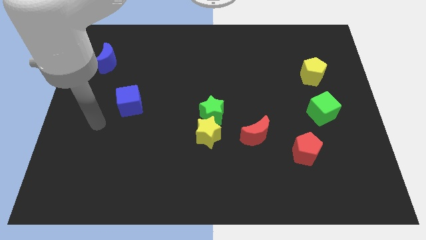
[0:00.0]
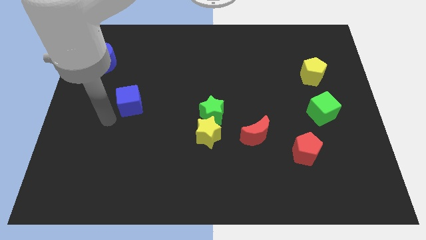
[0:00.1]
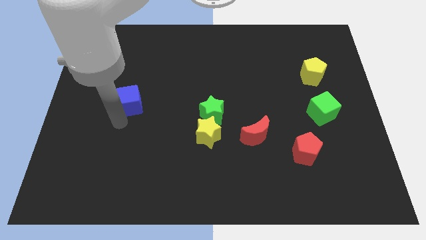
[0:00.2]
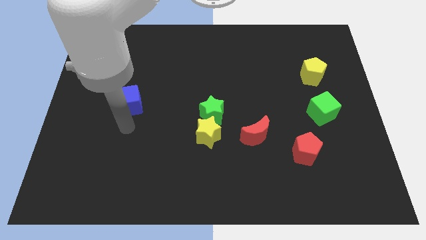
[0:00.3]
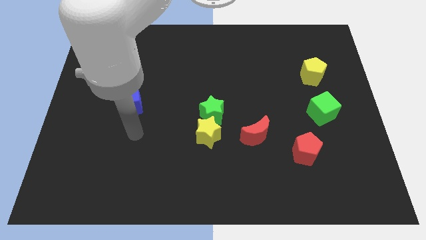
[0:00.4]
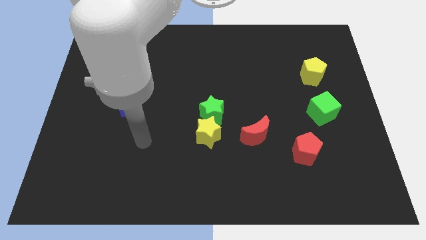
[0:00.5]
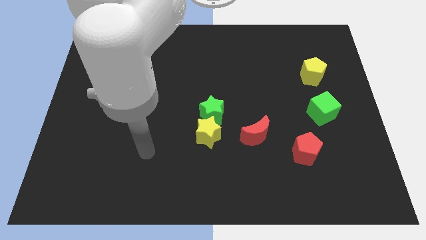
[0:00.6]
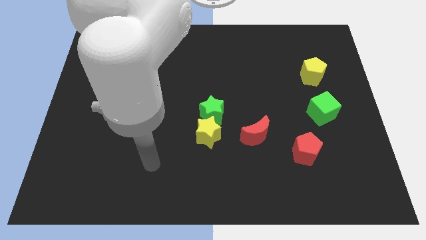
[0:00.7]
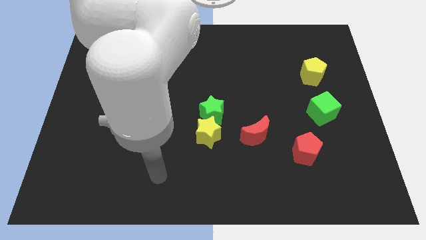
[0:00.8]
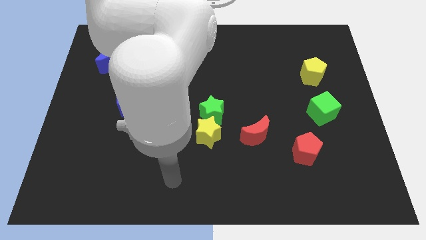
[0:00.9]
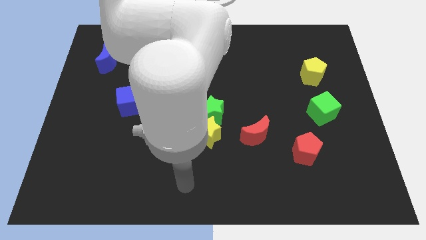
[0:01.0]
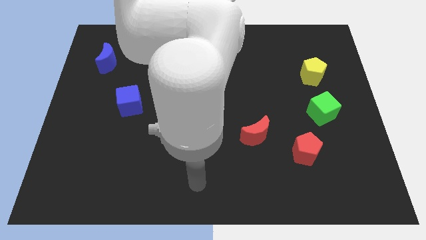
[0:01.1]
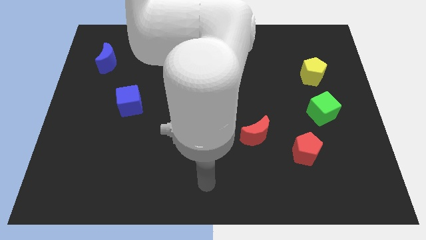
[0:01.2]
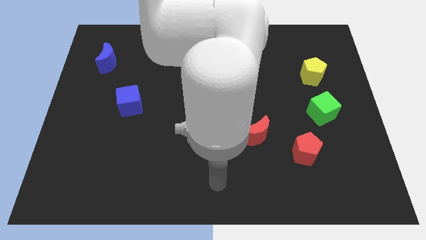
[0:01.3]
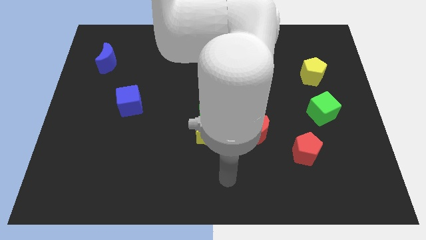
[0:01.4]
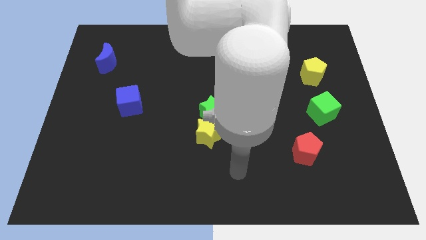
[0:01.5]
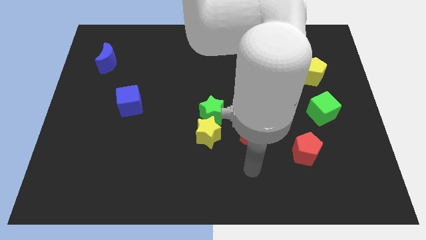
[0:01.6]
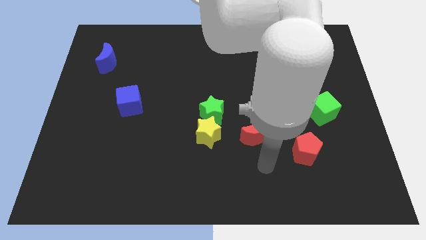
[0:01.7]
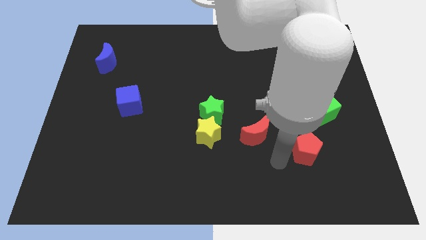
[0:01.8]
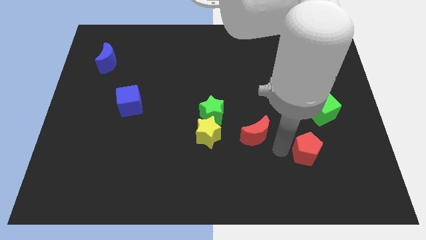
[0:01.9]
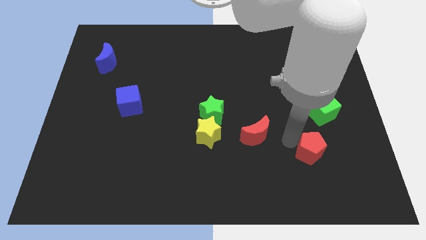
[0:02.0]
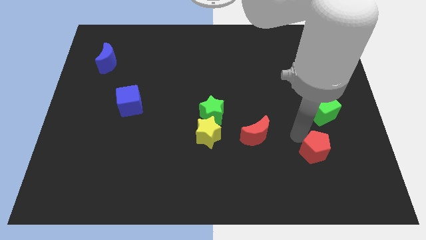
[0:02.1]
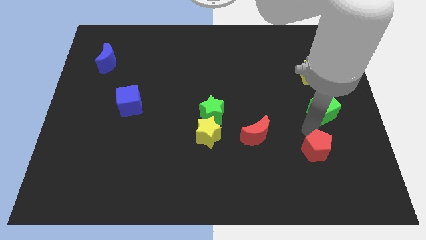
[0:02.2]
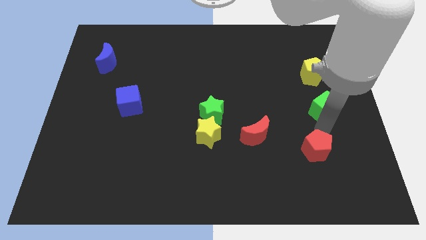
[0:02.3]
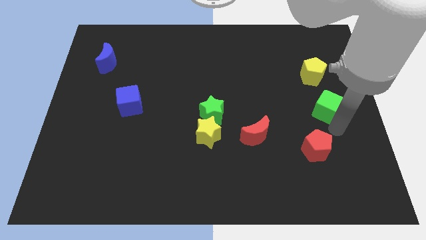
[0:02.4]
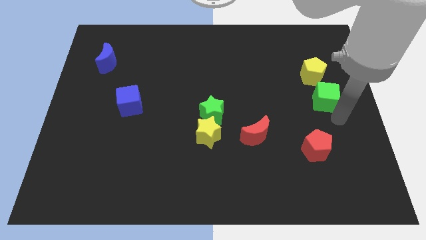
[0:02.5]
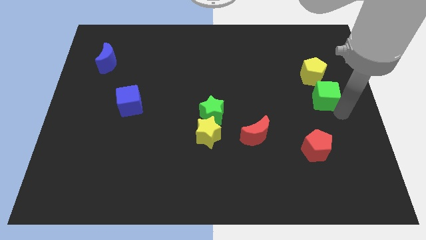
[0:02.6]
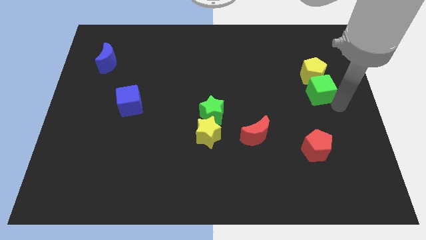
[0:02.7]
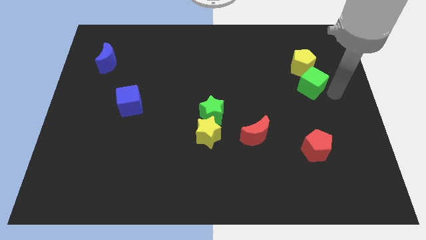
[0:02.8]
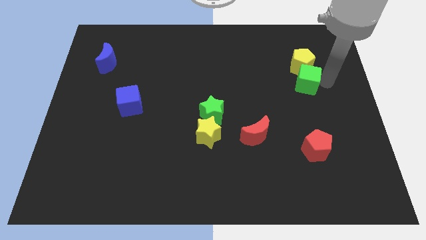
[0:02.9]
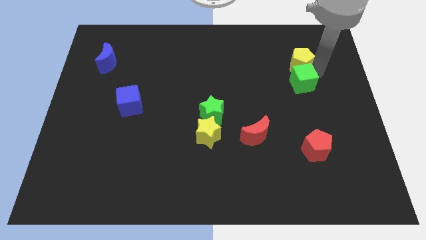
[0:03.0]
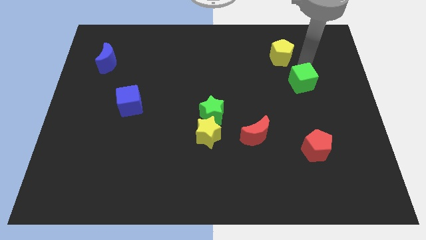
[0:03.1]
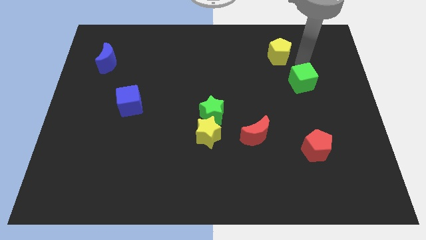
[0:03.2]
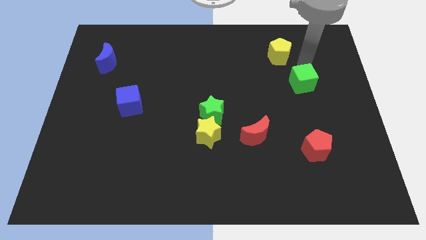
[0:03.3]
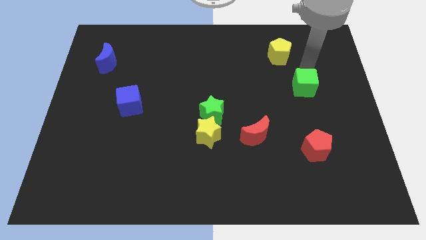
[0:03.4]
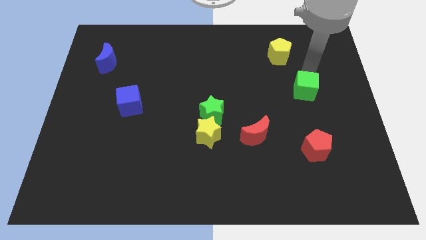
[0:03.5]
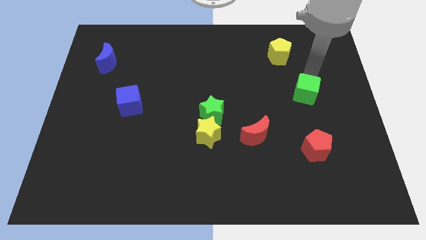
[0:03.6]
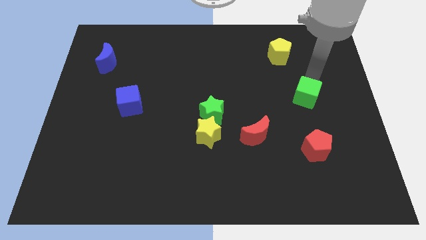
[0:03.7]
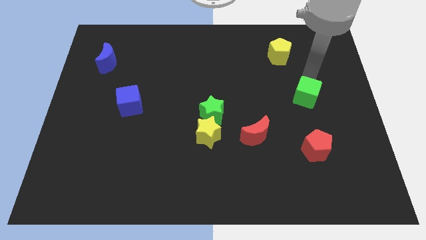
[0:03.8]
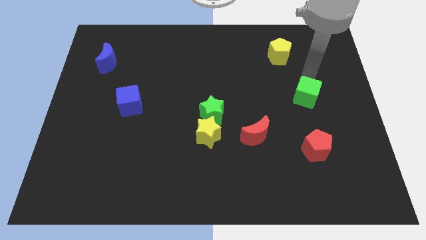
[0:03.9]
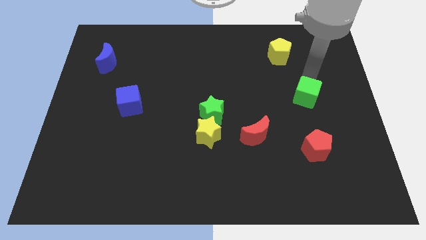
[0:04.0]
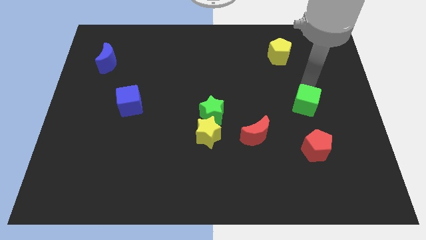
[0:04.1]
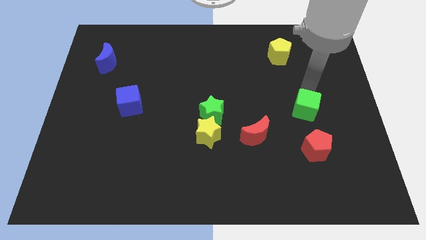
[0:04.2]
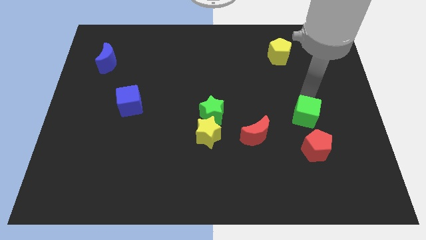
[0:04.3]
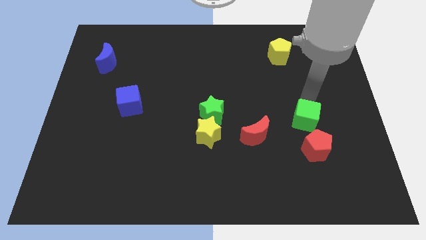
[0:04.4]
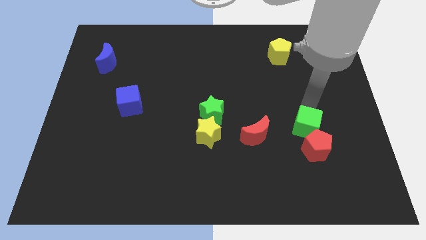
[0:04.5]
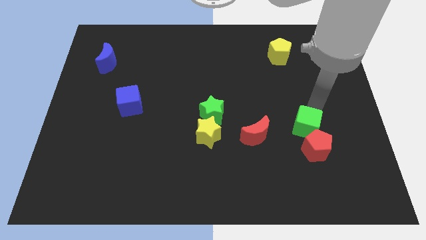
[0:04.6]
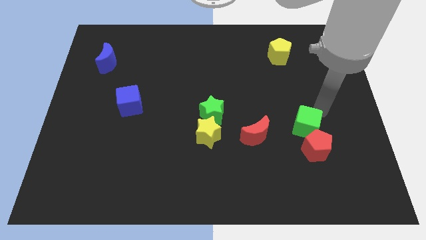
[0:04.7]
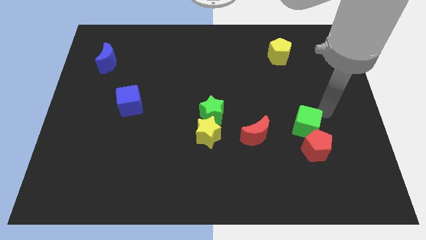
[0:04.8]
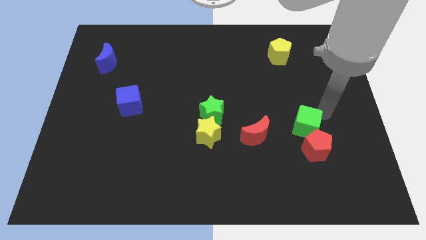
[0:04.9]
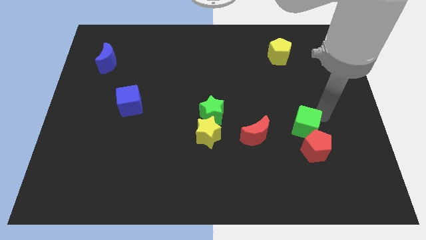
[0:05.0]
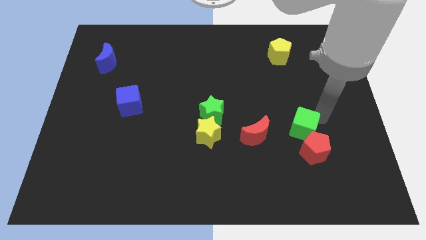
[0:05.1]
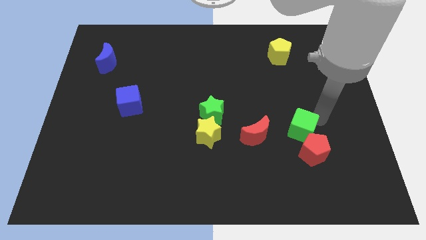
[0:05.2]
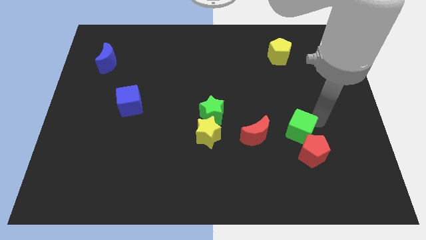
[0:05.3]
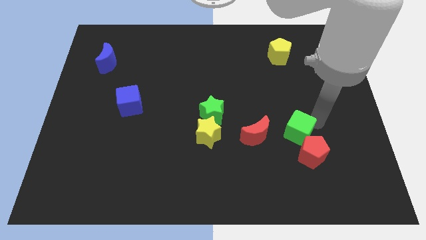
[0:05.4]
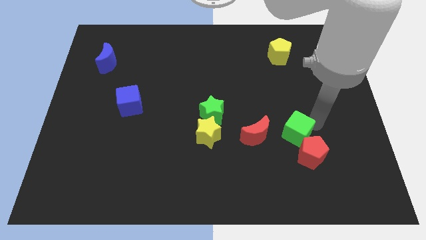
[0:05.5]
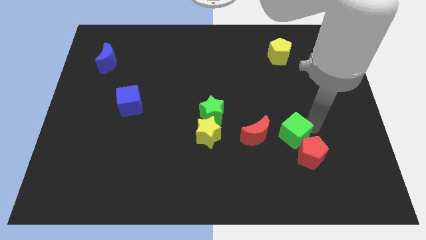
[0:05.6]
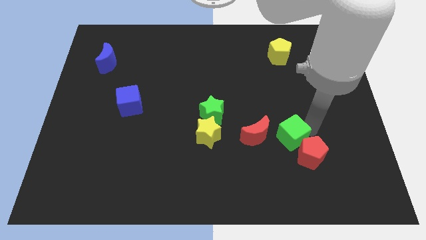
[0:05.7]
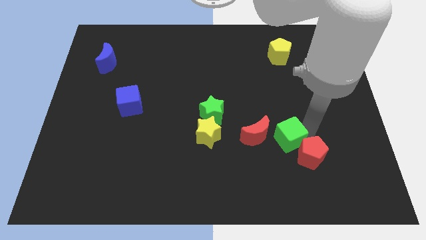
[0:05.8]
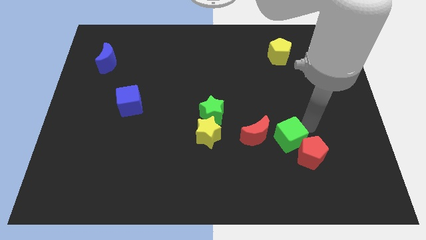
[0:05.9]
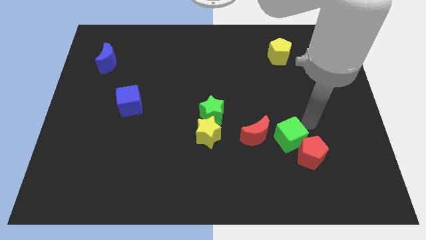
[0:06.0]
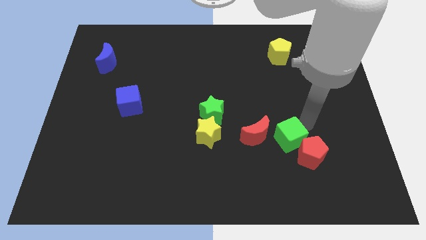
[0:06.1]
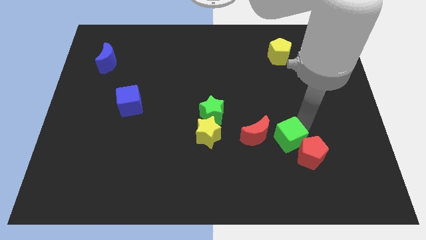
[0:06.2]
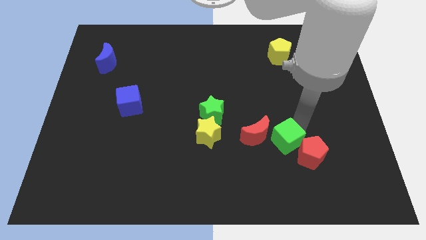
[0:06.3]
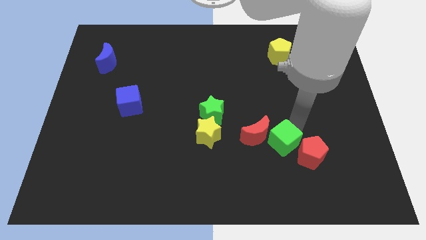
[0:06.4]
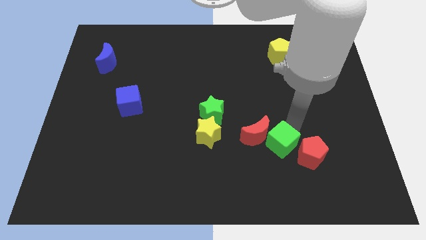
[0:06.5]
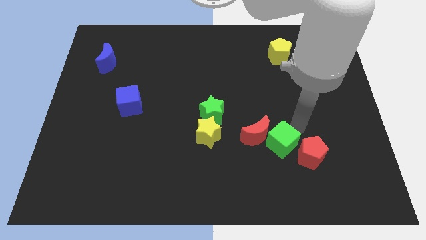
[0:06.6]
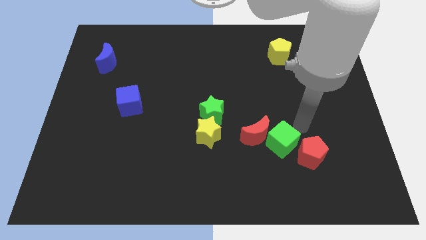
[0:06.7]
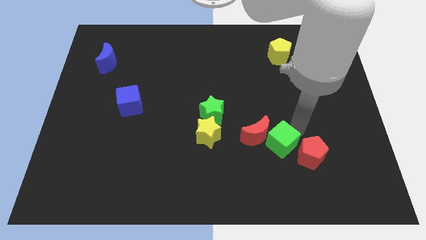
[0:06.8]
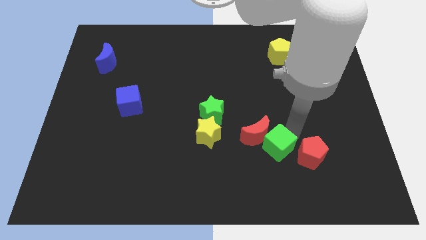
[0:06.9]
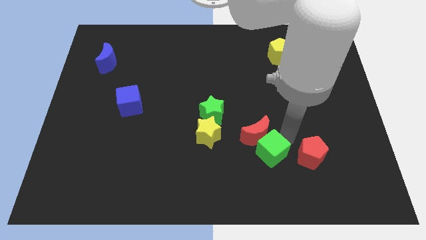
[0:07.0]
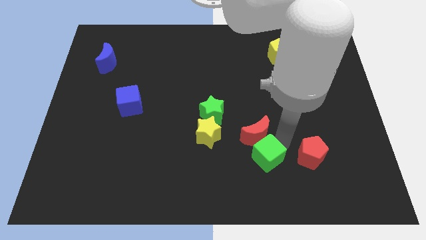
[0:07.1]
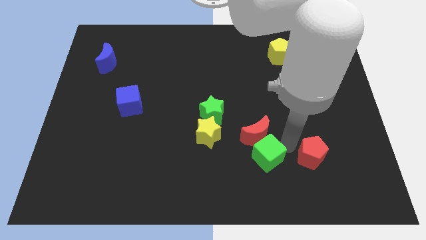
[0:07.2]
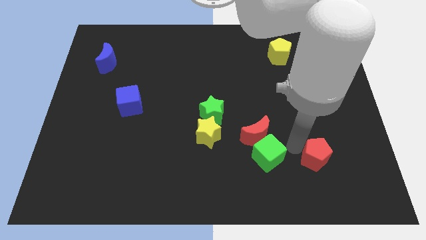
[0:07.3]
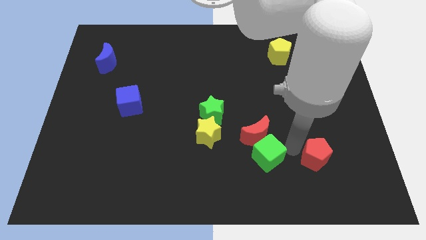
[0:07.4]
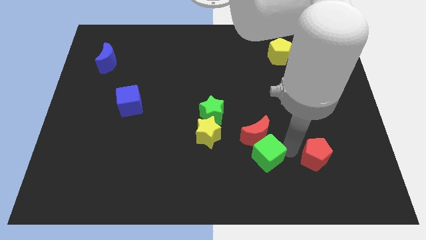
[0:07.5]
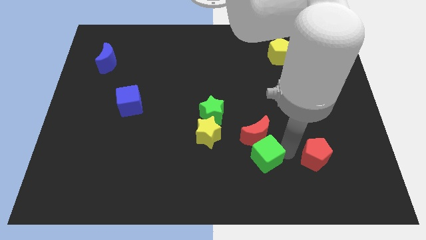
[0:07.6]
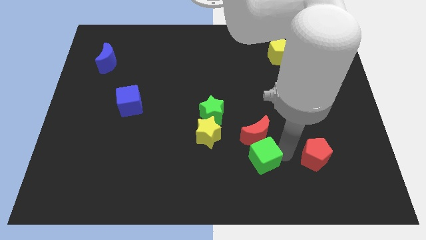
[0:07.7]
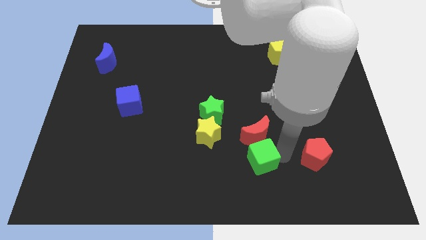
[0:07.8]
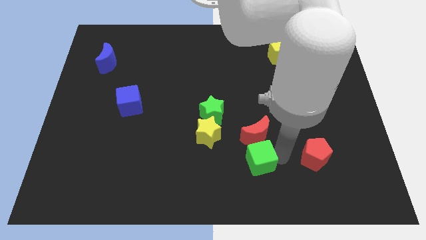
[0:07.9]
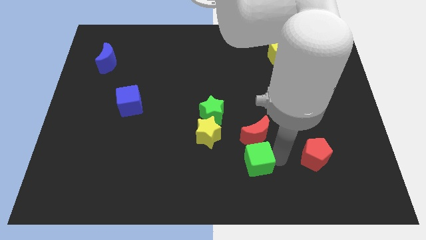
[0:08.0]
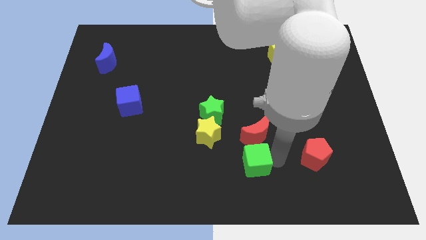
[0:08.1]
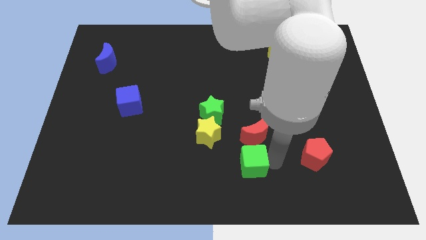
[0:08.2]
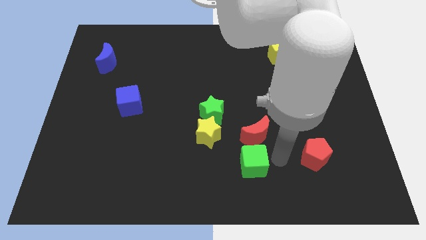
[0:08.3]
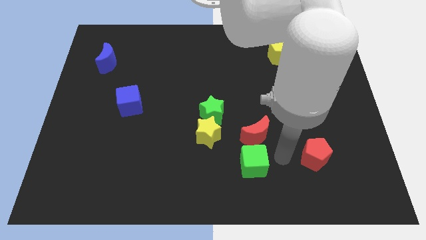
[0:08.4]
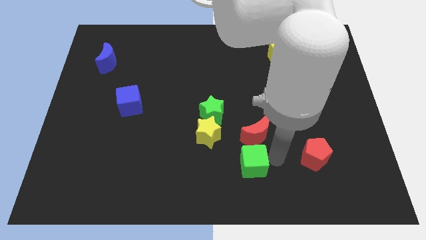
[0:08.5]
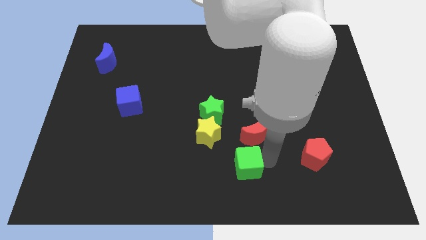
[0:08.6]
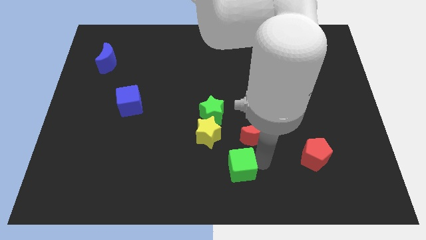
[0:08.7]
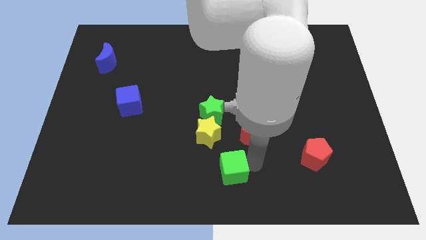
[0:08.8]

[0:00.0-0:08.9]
move the green cube to the bottom of the yellow star
